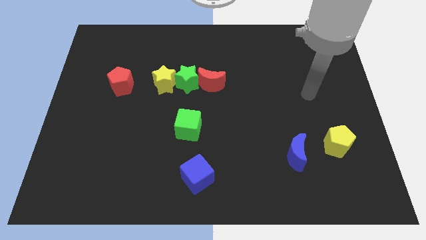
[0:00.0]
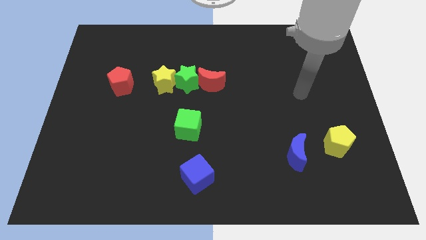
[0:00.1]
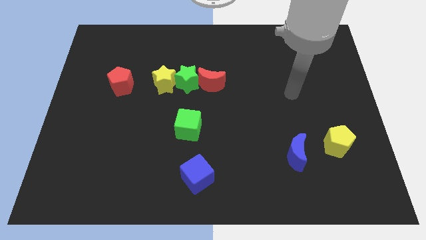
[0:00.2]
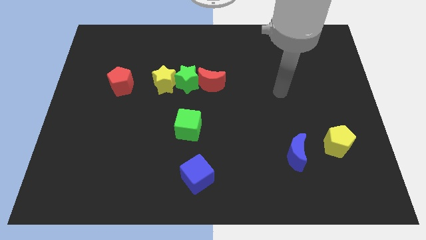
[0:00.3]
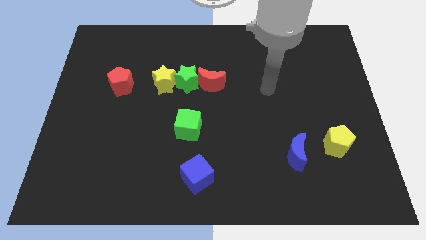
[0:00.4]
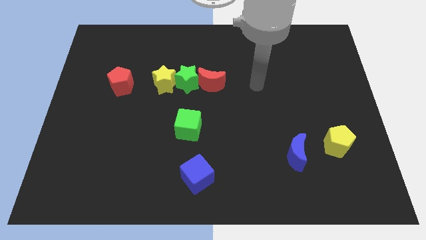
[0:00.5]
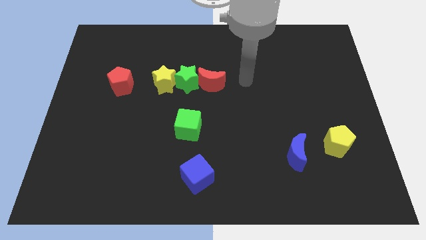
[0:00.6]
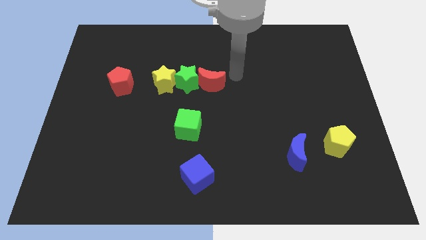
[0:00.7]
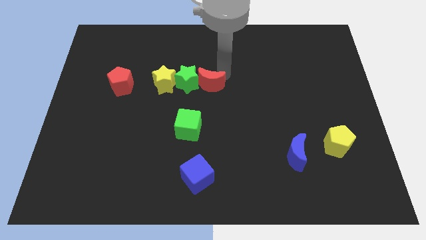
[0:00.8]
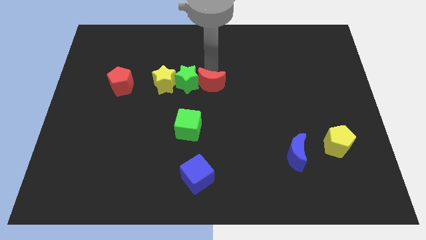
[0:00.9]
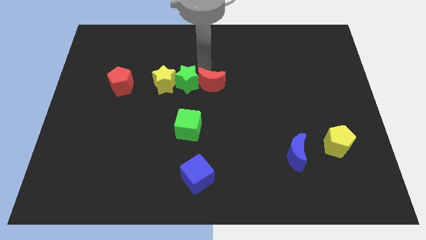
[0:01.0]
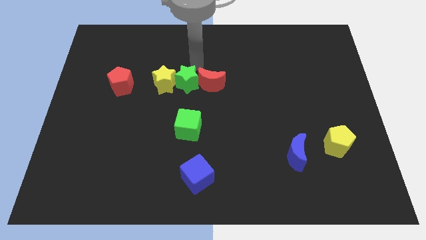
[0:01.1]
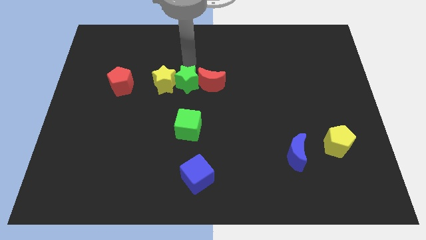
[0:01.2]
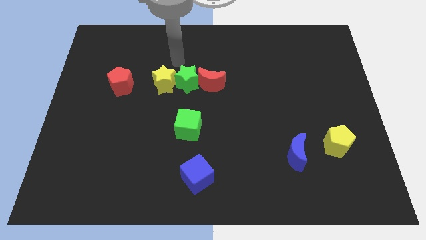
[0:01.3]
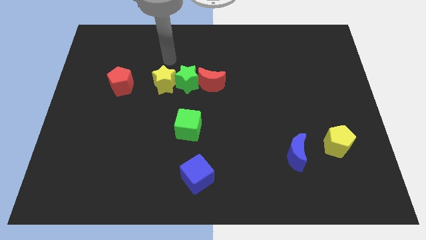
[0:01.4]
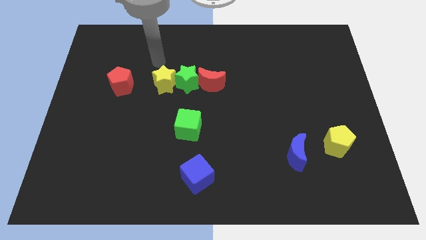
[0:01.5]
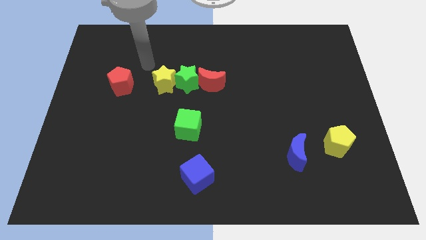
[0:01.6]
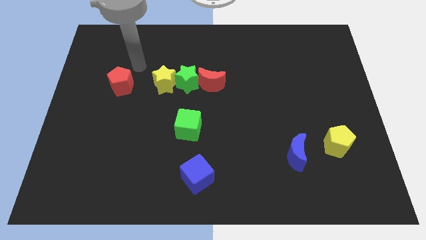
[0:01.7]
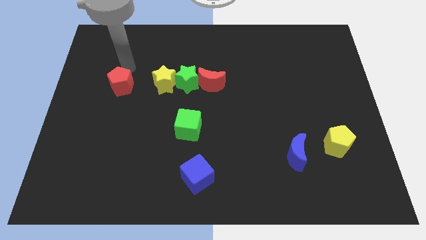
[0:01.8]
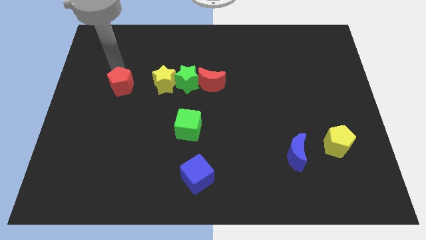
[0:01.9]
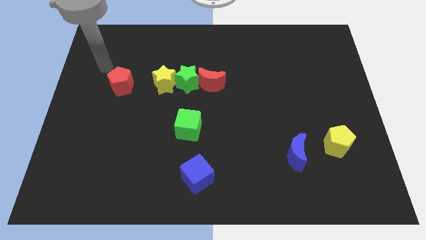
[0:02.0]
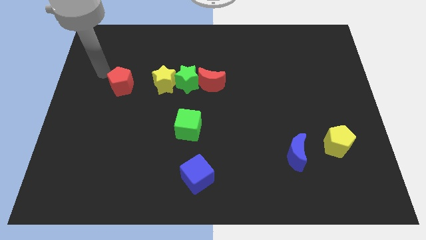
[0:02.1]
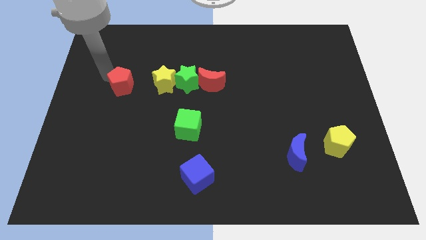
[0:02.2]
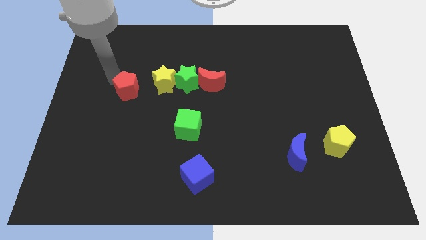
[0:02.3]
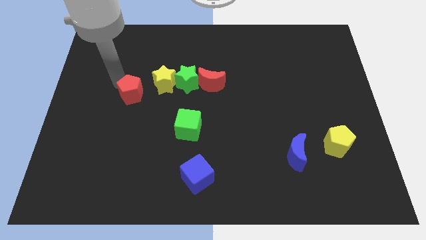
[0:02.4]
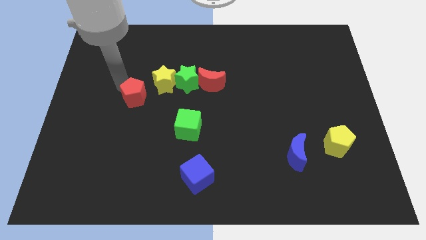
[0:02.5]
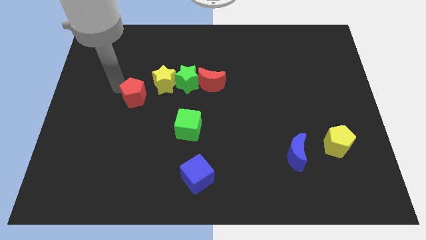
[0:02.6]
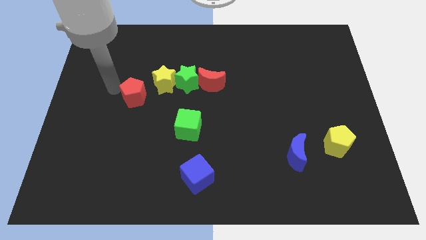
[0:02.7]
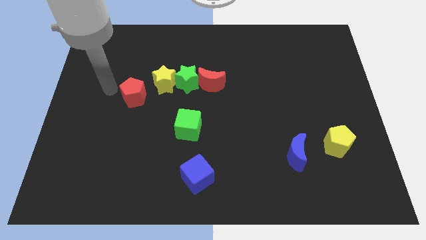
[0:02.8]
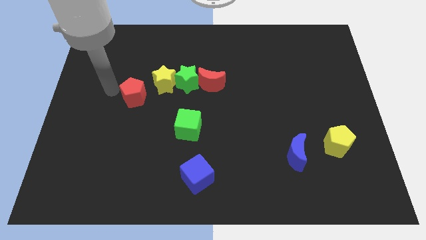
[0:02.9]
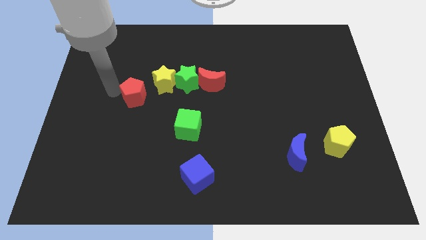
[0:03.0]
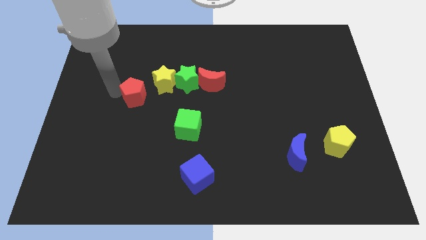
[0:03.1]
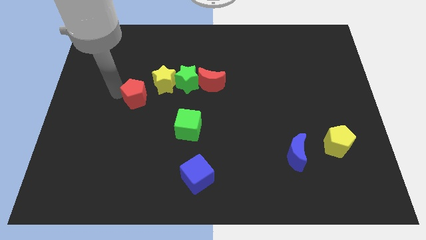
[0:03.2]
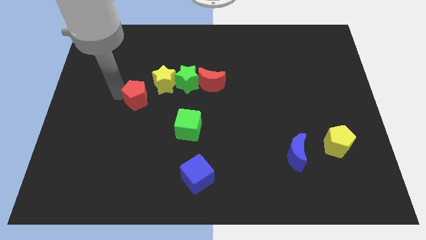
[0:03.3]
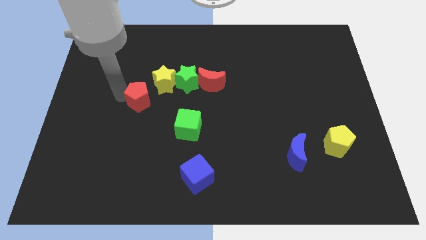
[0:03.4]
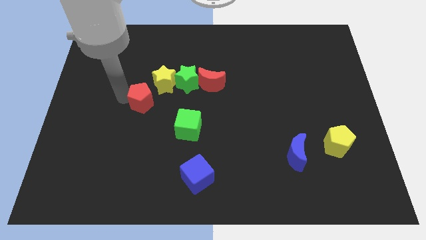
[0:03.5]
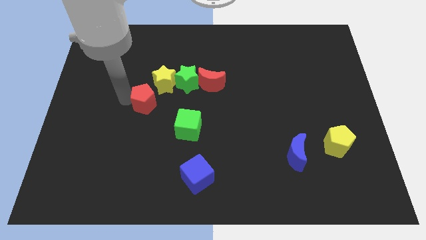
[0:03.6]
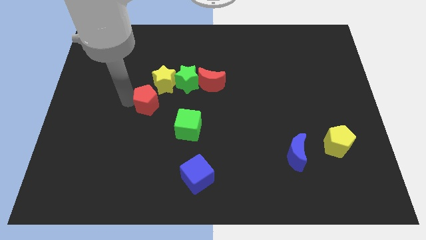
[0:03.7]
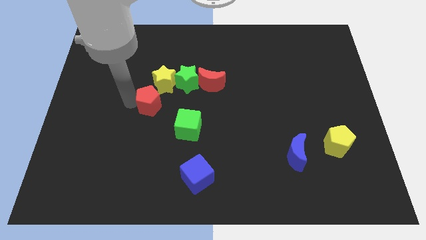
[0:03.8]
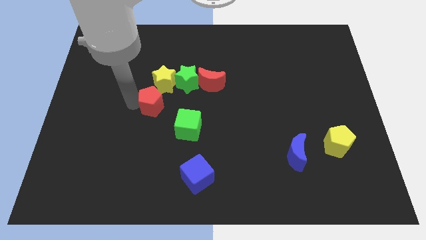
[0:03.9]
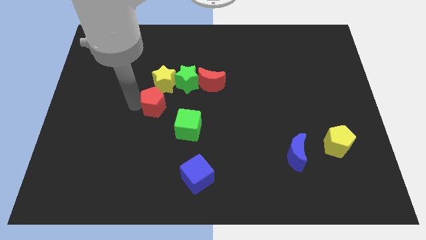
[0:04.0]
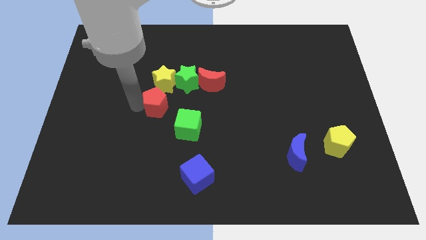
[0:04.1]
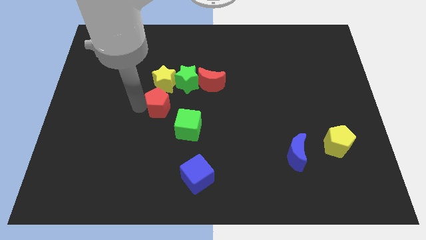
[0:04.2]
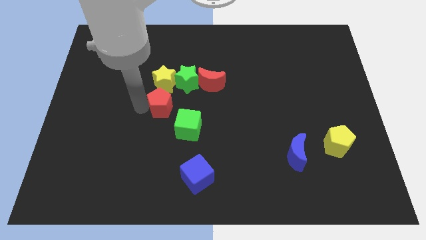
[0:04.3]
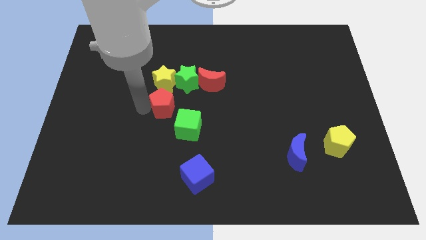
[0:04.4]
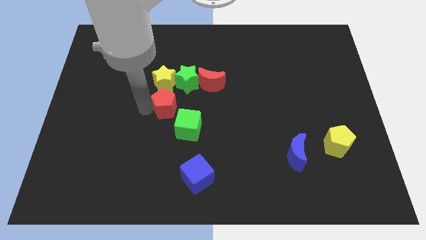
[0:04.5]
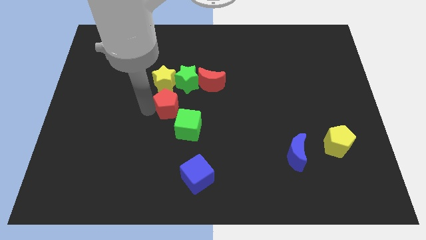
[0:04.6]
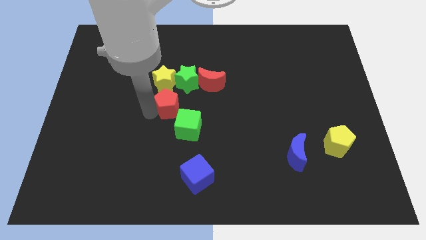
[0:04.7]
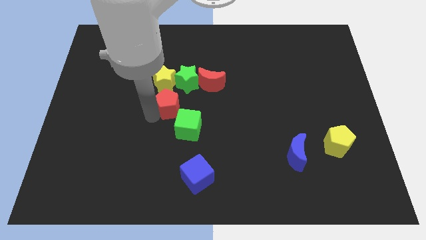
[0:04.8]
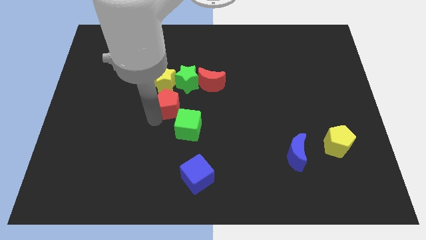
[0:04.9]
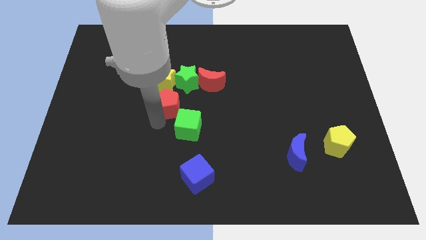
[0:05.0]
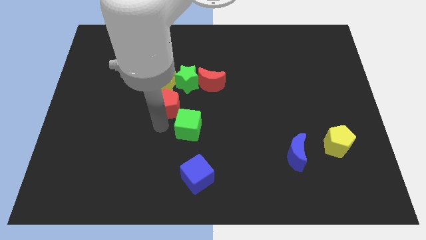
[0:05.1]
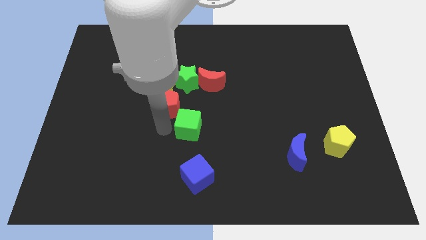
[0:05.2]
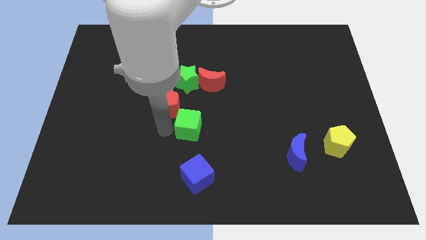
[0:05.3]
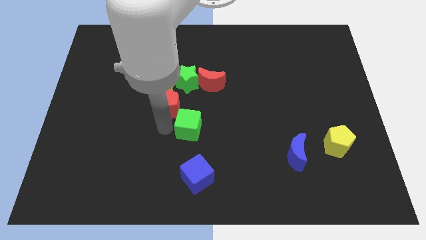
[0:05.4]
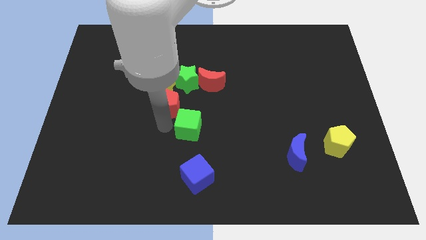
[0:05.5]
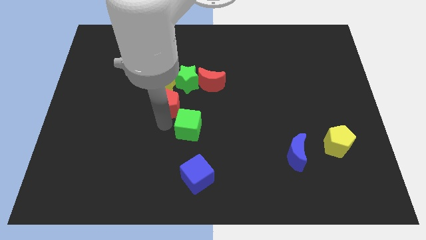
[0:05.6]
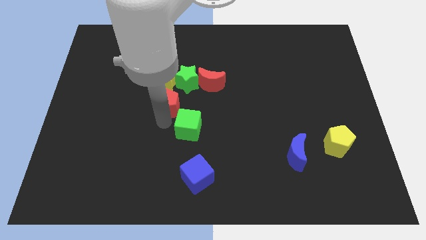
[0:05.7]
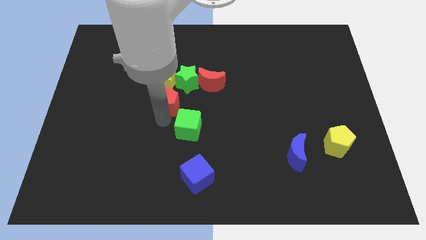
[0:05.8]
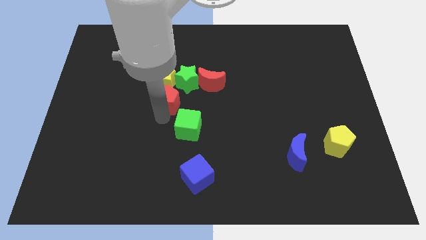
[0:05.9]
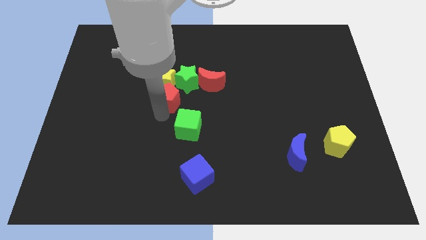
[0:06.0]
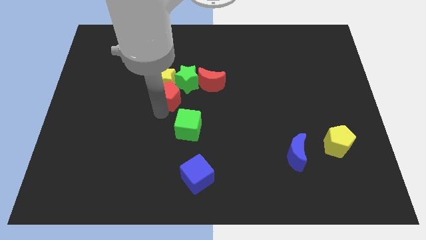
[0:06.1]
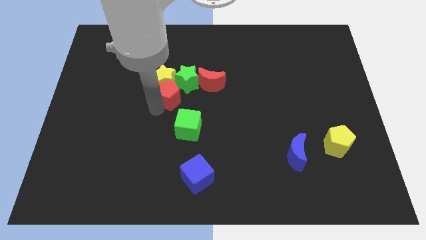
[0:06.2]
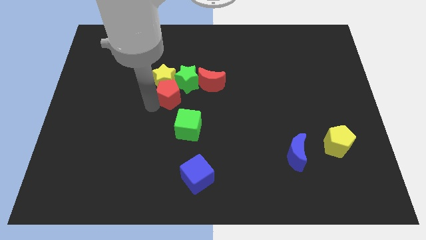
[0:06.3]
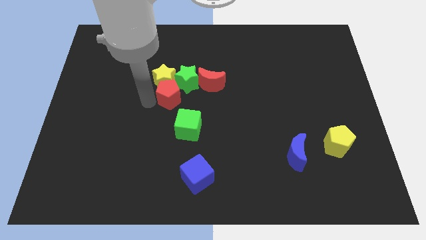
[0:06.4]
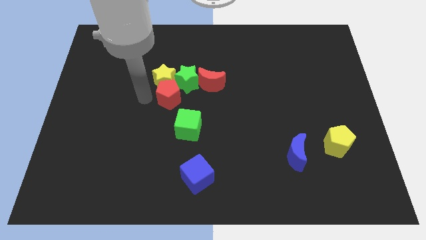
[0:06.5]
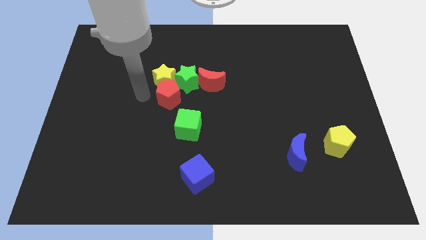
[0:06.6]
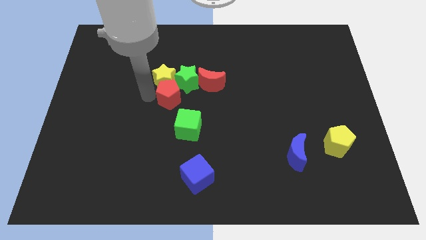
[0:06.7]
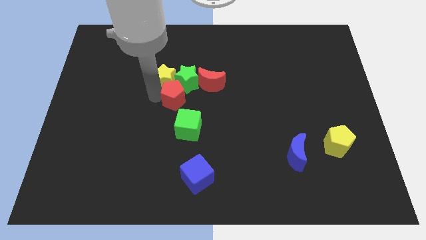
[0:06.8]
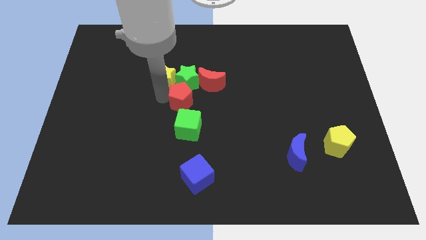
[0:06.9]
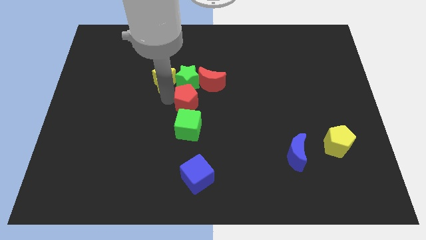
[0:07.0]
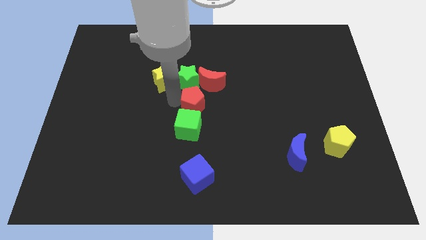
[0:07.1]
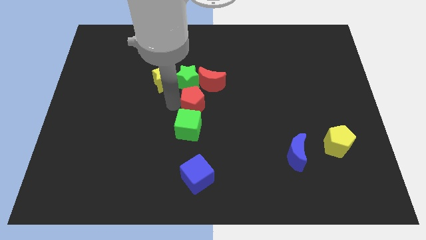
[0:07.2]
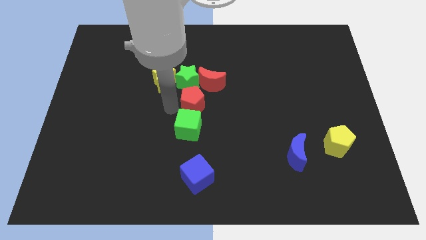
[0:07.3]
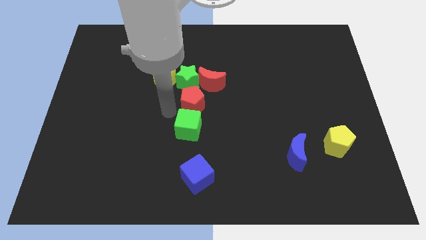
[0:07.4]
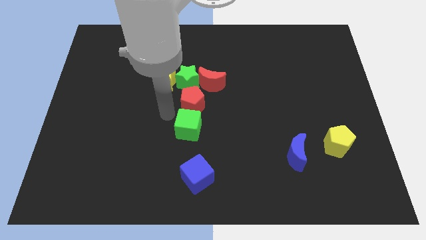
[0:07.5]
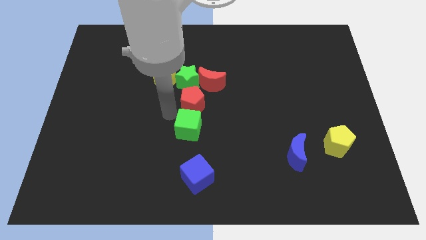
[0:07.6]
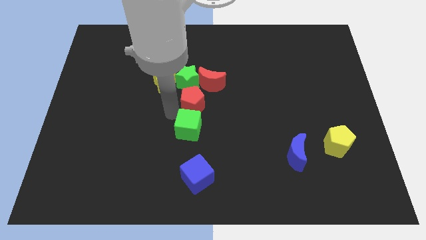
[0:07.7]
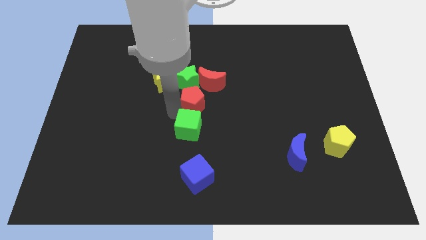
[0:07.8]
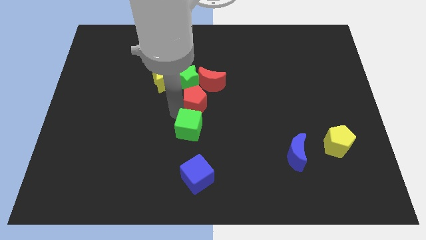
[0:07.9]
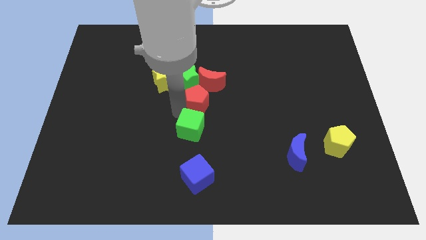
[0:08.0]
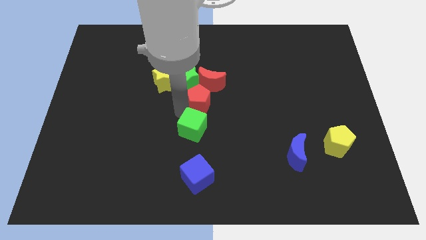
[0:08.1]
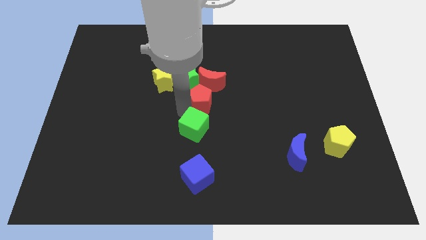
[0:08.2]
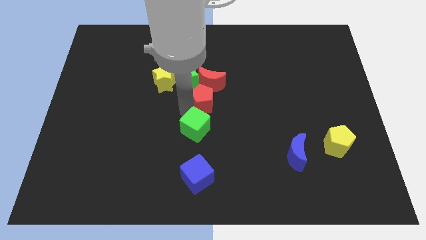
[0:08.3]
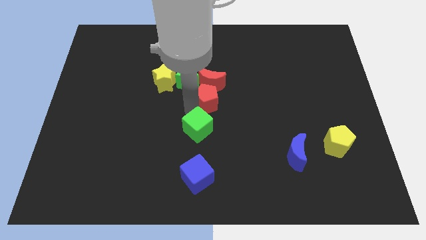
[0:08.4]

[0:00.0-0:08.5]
push the red pentagon right
